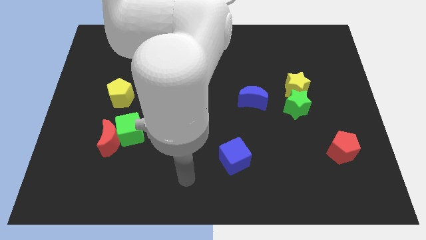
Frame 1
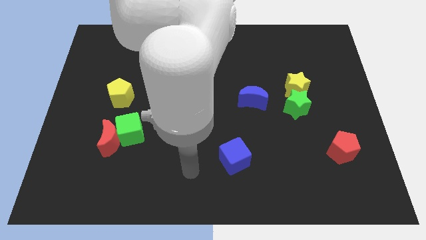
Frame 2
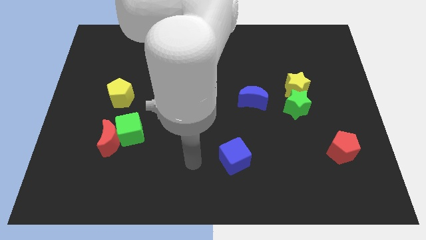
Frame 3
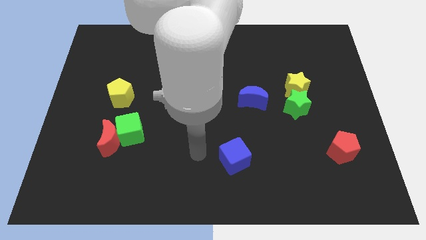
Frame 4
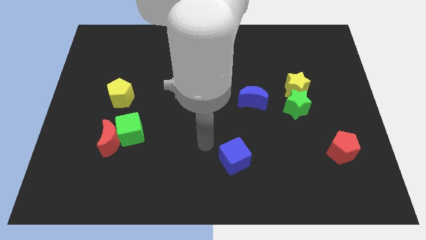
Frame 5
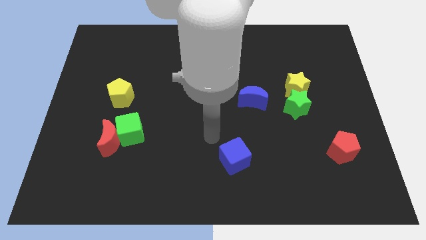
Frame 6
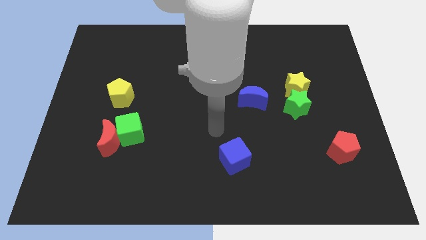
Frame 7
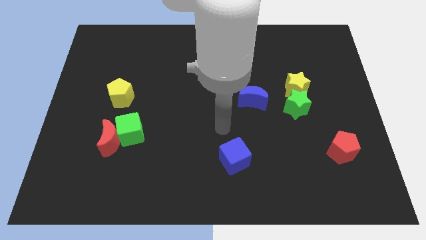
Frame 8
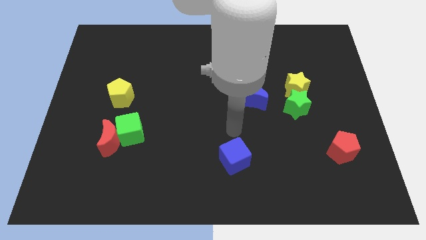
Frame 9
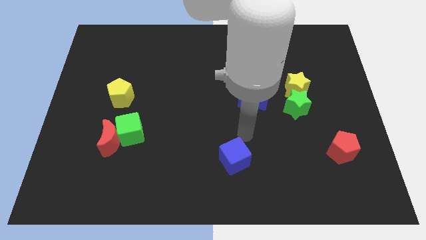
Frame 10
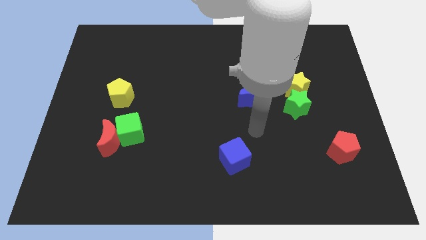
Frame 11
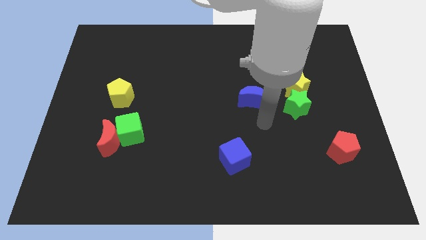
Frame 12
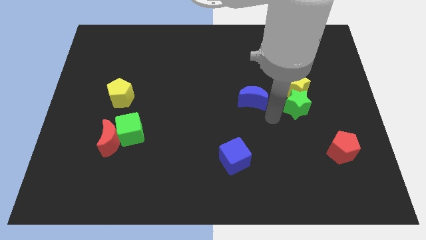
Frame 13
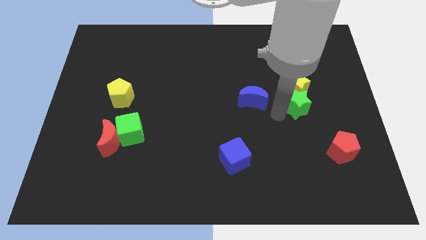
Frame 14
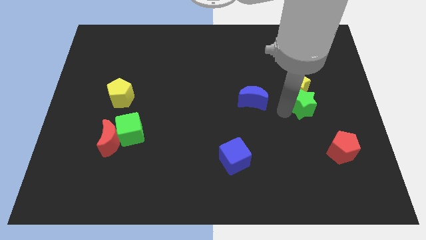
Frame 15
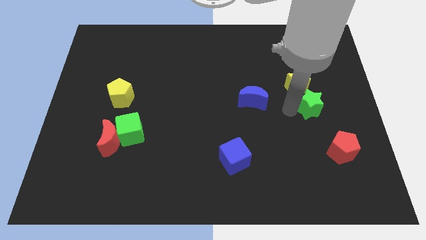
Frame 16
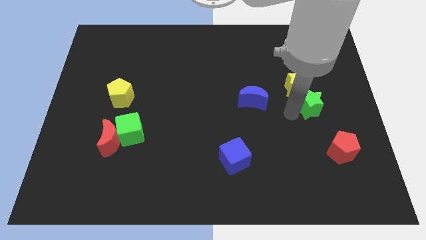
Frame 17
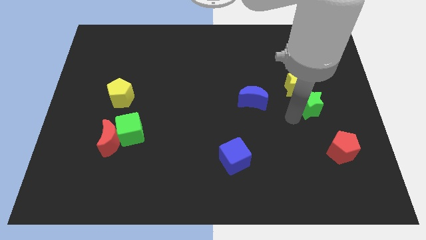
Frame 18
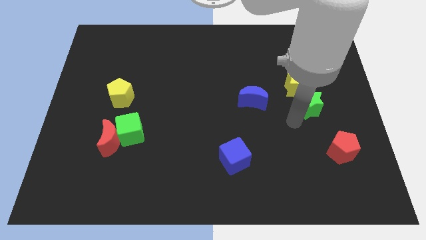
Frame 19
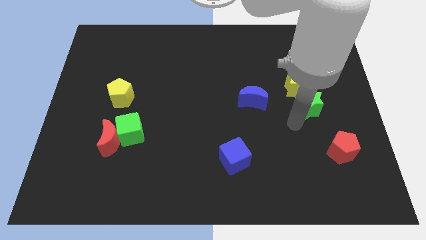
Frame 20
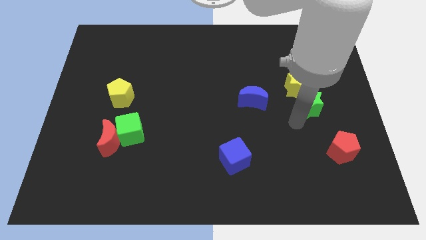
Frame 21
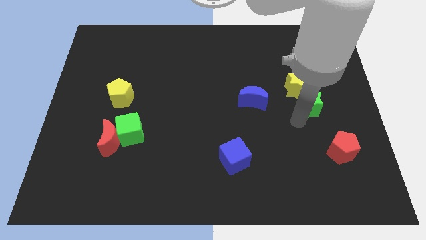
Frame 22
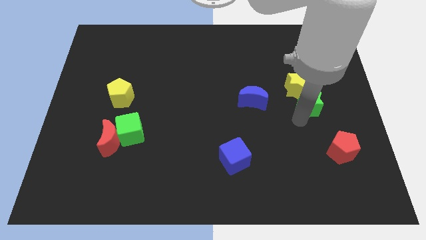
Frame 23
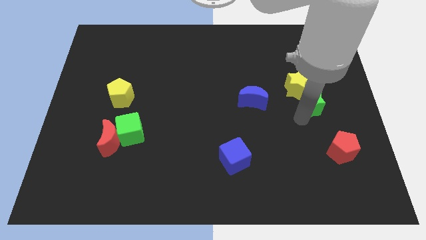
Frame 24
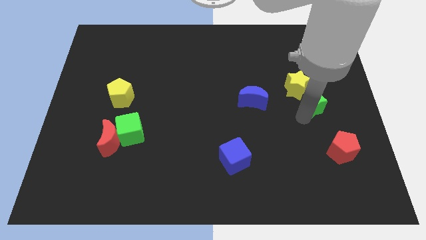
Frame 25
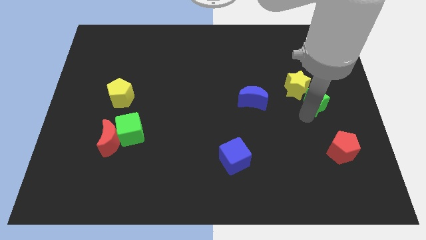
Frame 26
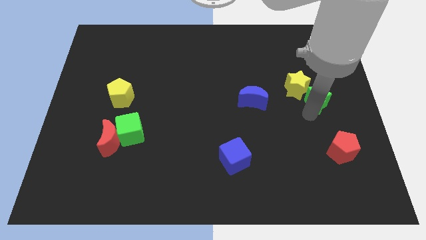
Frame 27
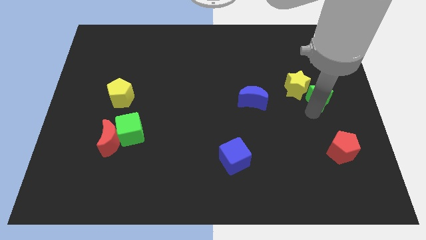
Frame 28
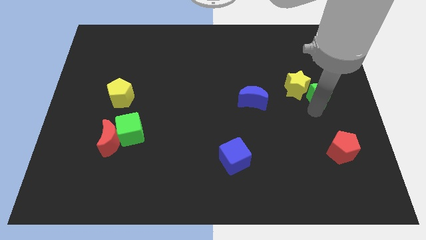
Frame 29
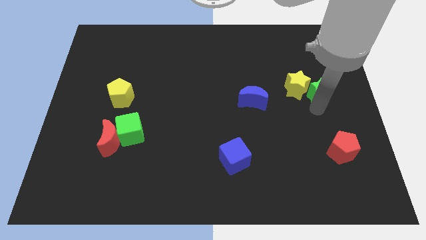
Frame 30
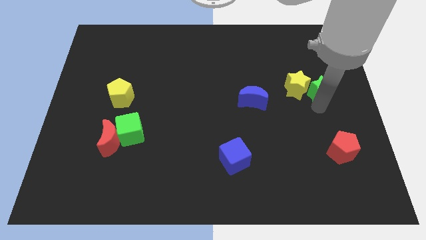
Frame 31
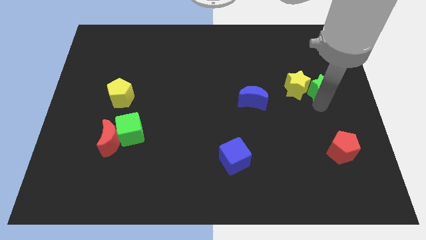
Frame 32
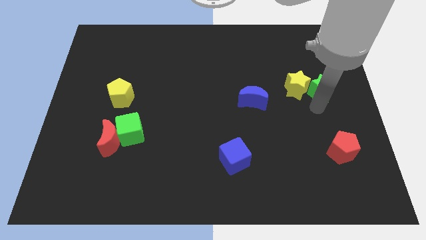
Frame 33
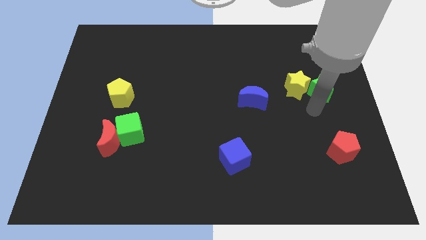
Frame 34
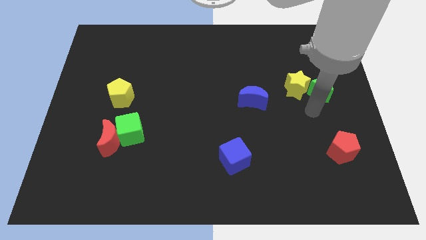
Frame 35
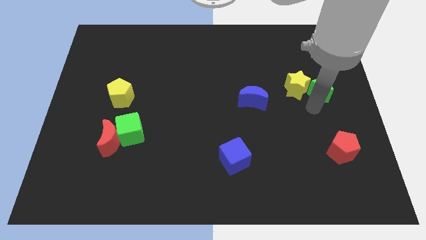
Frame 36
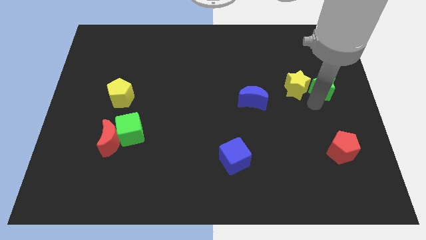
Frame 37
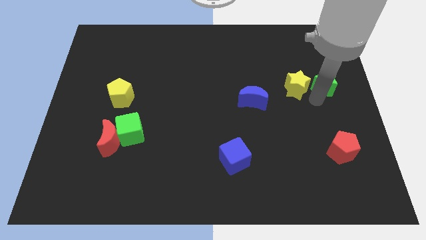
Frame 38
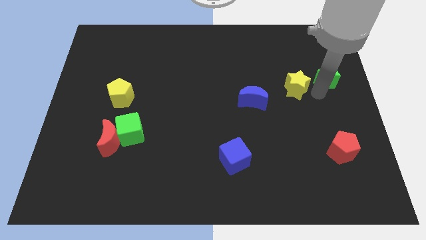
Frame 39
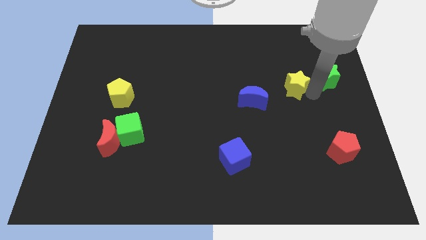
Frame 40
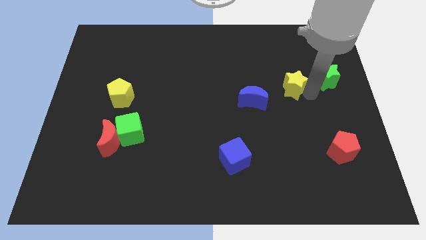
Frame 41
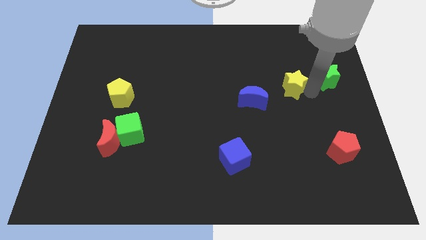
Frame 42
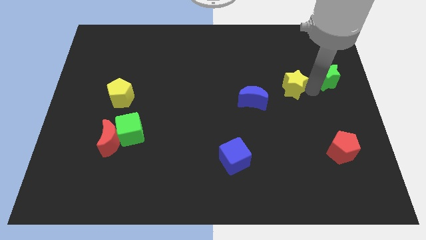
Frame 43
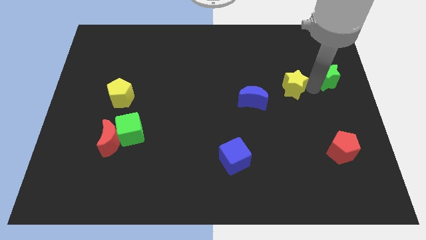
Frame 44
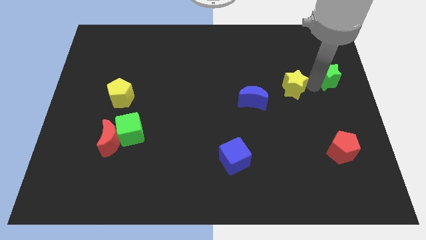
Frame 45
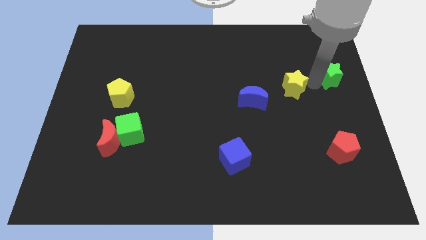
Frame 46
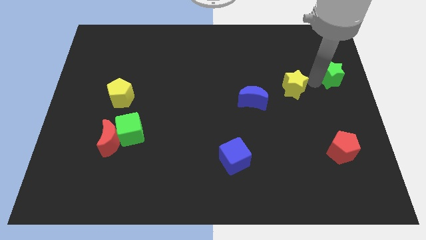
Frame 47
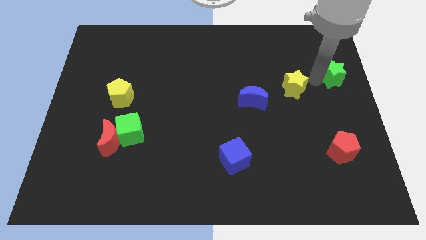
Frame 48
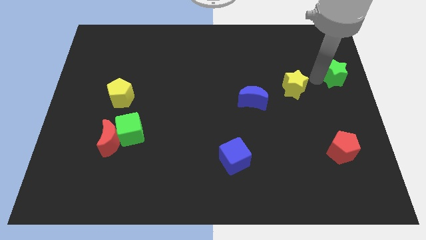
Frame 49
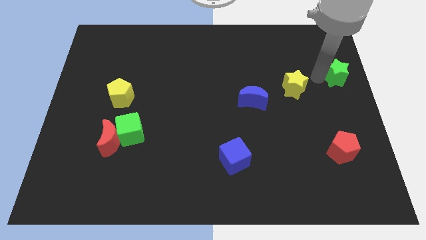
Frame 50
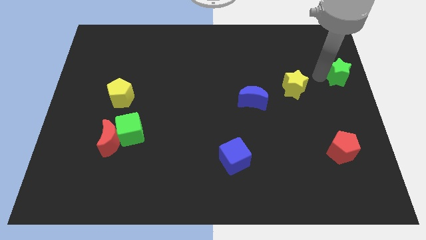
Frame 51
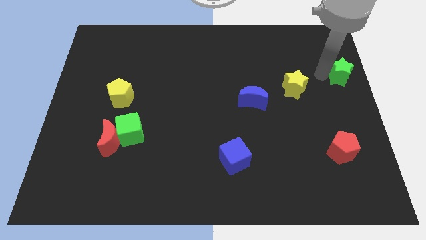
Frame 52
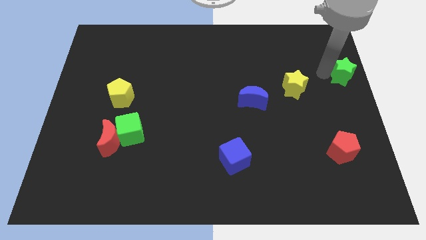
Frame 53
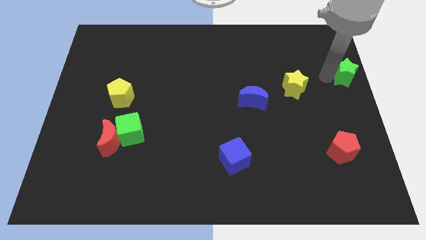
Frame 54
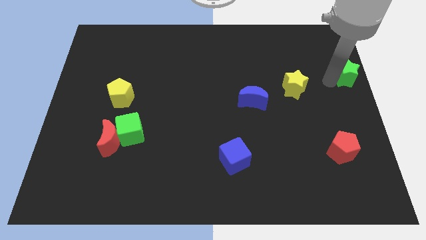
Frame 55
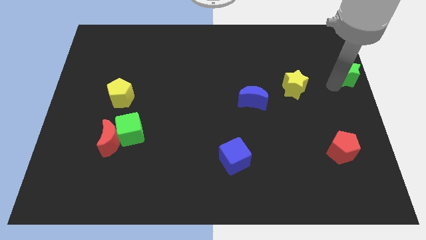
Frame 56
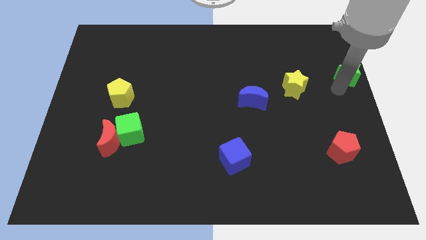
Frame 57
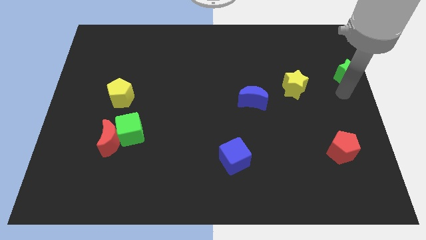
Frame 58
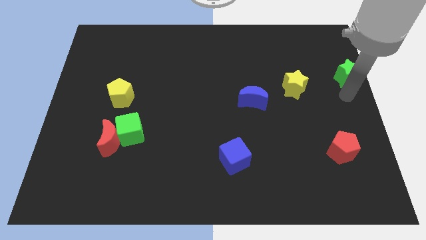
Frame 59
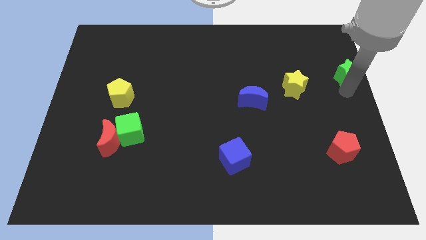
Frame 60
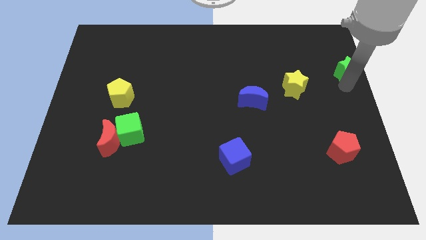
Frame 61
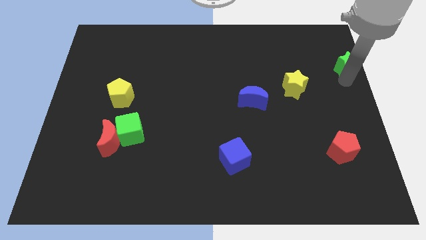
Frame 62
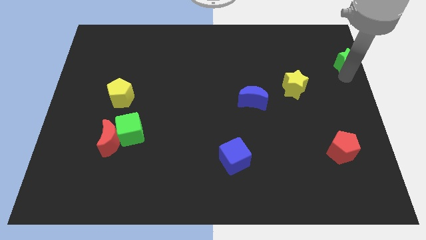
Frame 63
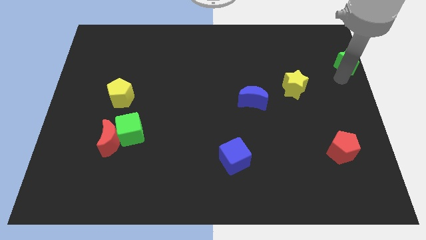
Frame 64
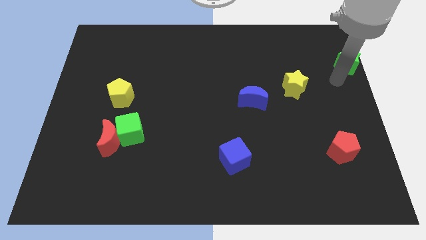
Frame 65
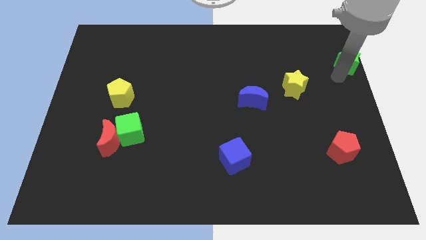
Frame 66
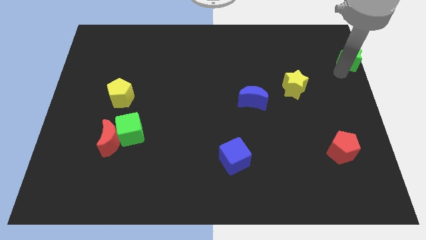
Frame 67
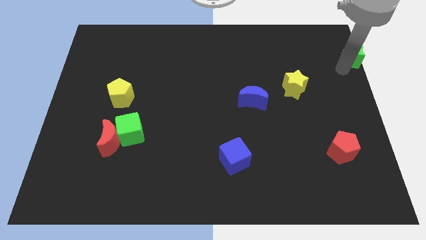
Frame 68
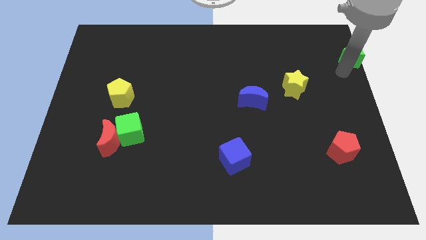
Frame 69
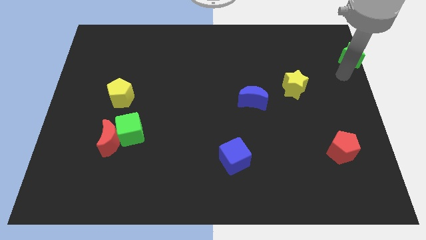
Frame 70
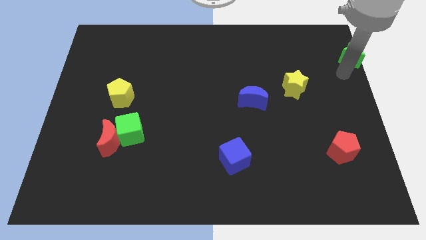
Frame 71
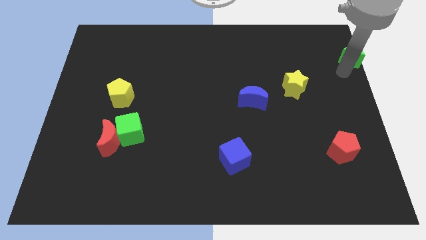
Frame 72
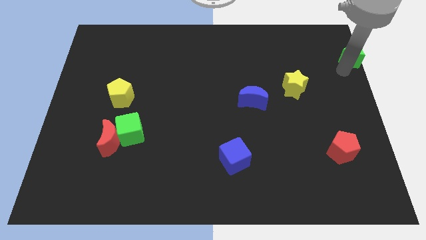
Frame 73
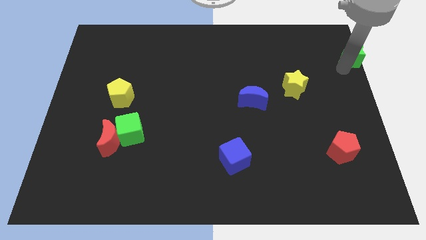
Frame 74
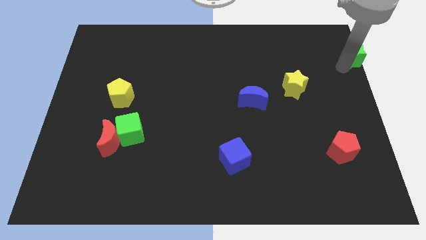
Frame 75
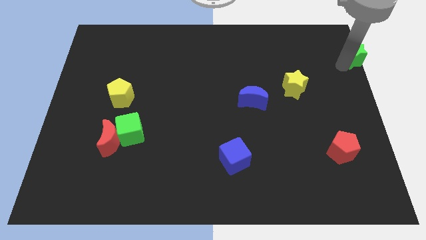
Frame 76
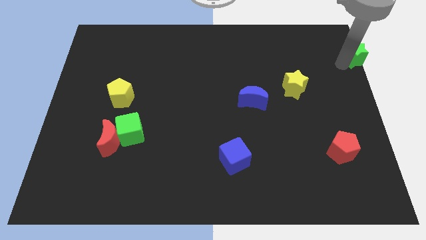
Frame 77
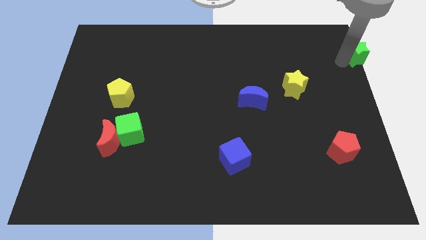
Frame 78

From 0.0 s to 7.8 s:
slide the green star to the upper right corner
